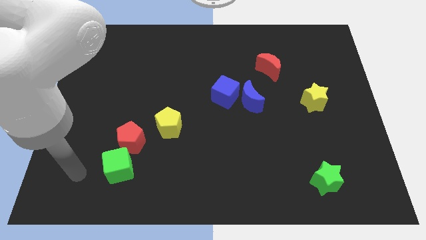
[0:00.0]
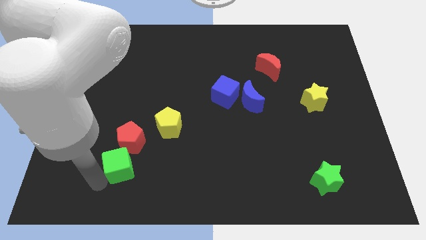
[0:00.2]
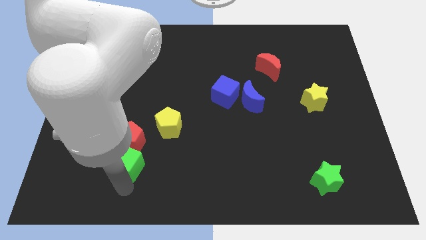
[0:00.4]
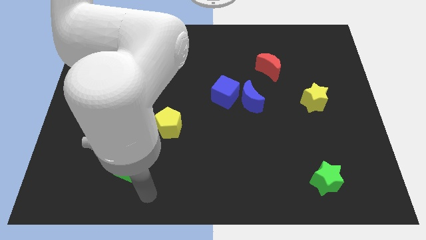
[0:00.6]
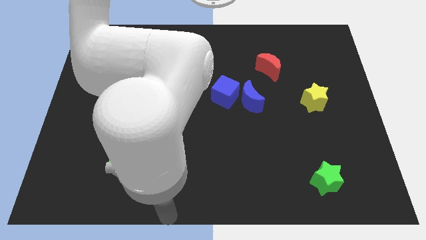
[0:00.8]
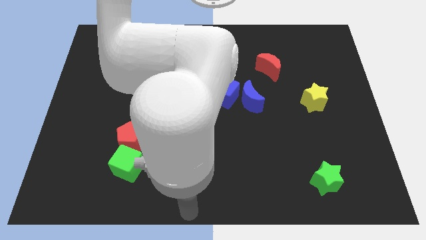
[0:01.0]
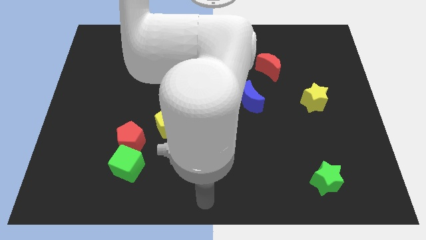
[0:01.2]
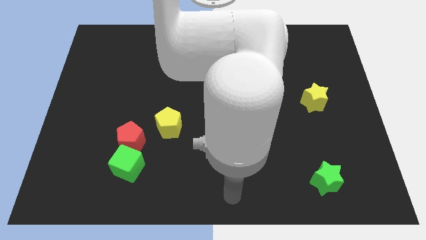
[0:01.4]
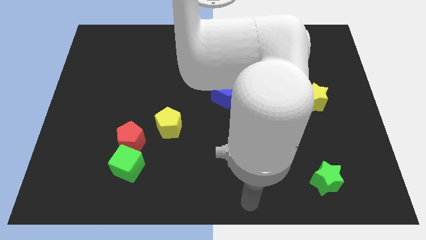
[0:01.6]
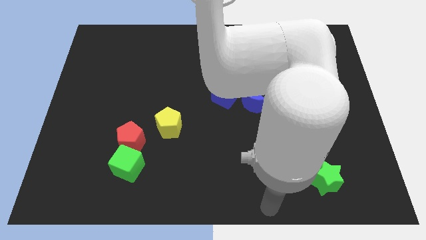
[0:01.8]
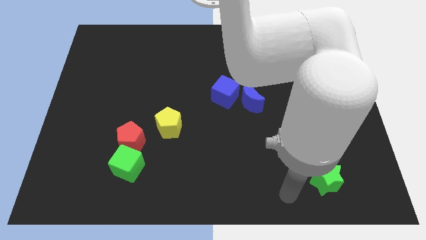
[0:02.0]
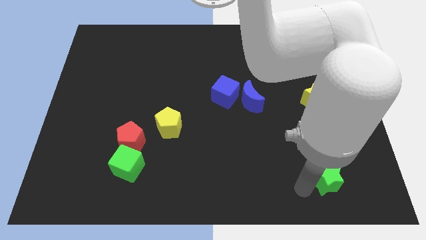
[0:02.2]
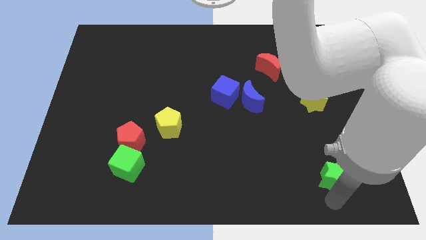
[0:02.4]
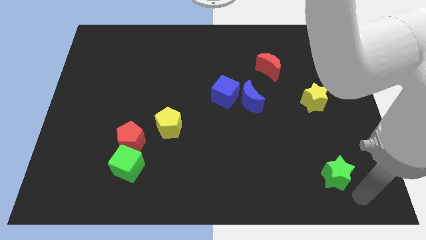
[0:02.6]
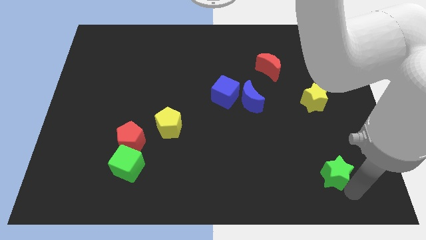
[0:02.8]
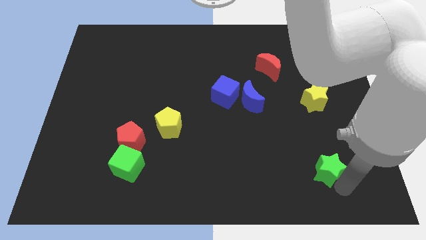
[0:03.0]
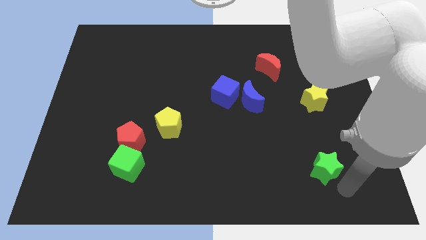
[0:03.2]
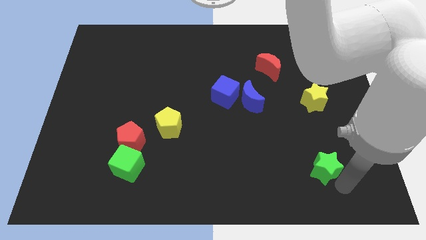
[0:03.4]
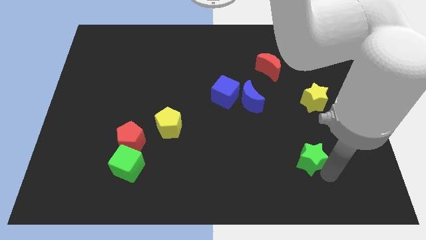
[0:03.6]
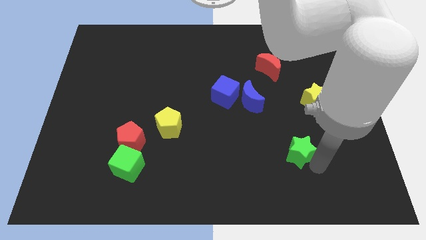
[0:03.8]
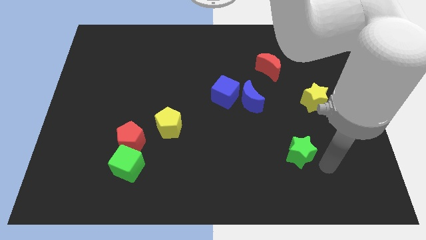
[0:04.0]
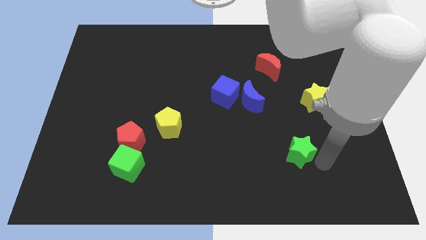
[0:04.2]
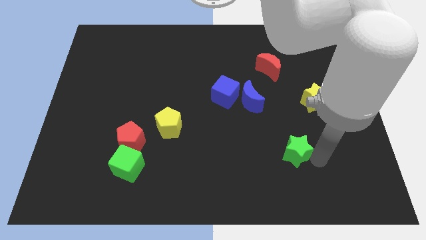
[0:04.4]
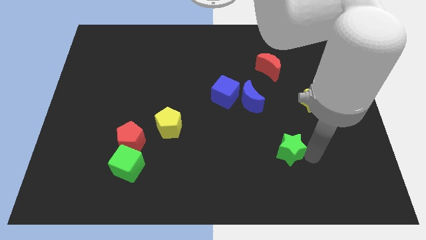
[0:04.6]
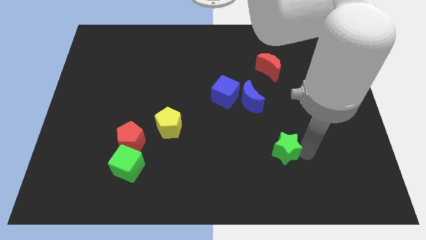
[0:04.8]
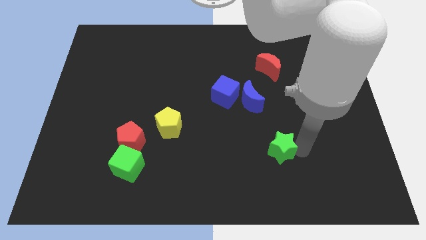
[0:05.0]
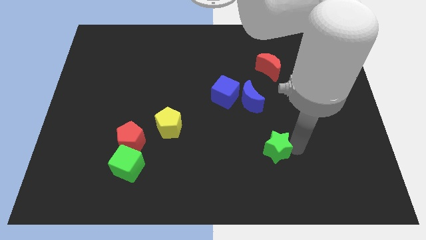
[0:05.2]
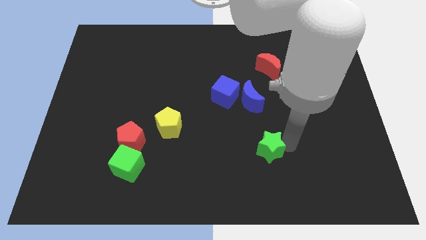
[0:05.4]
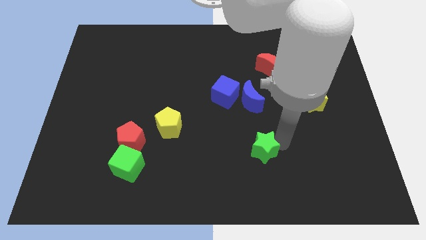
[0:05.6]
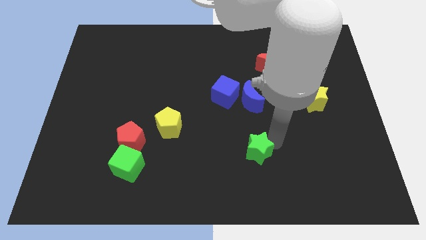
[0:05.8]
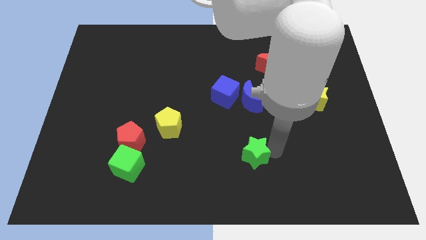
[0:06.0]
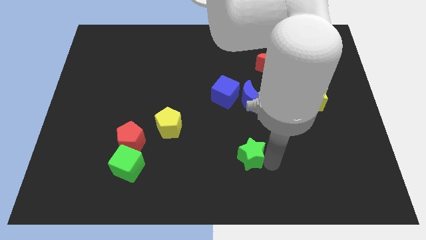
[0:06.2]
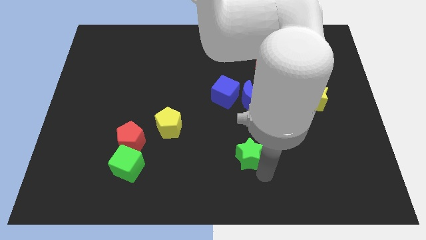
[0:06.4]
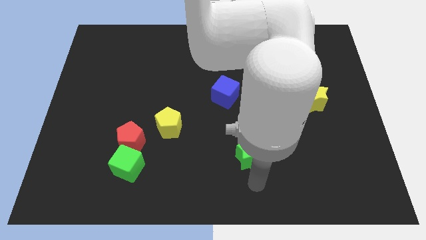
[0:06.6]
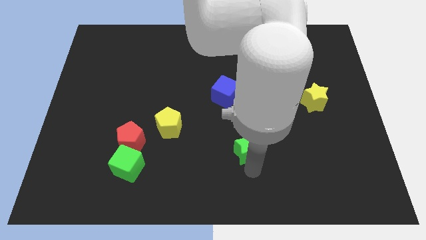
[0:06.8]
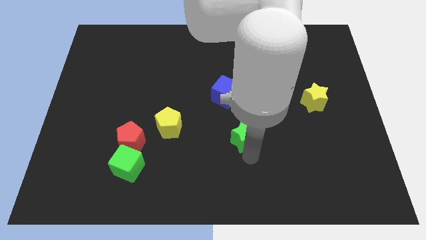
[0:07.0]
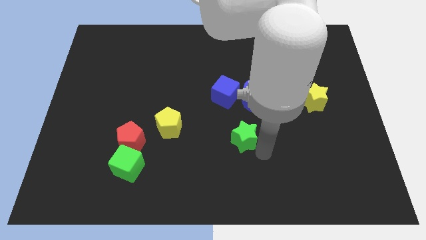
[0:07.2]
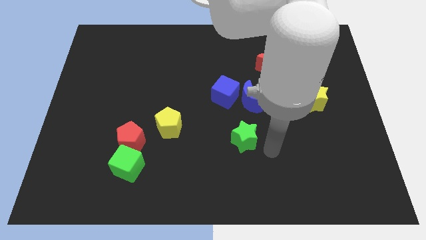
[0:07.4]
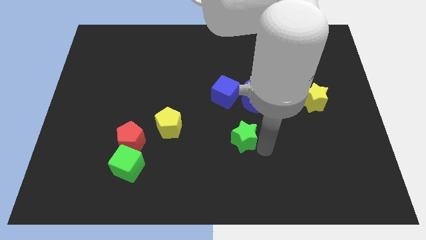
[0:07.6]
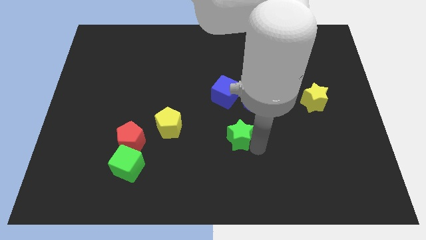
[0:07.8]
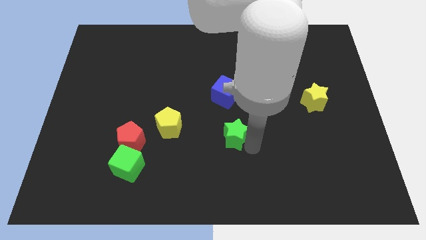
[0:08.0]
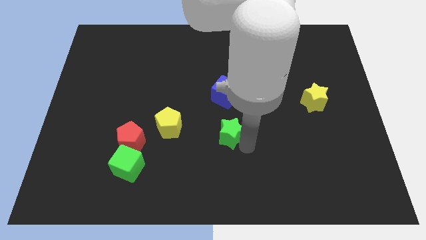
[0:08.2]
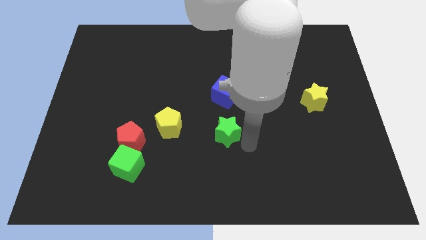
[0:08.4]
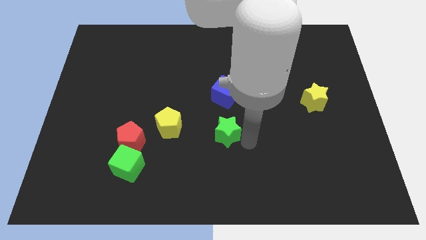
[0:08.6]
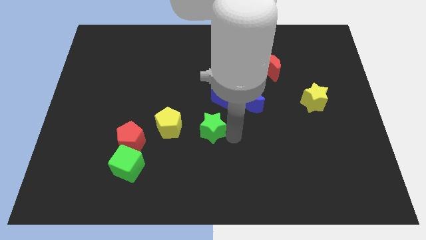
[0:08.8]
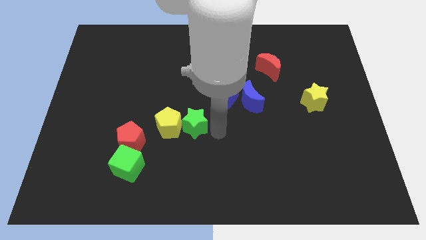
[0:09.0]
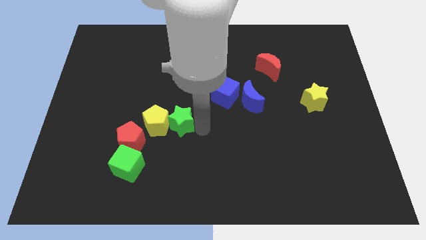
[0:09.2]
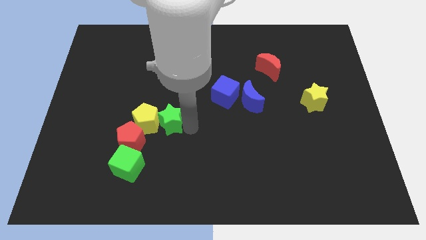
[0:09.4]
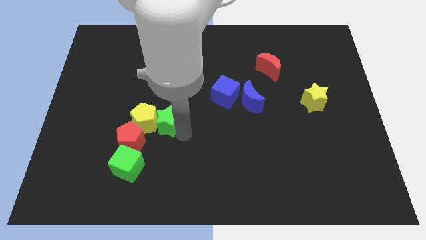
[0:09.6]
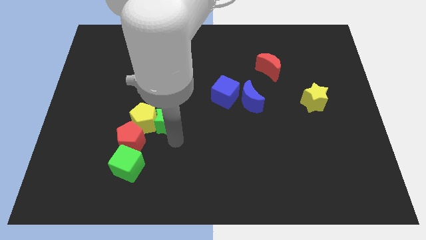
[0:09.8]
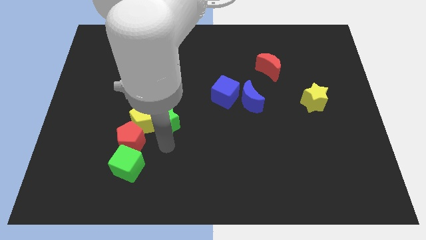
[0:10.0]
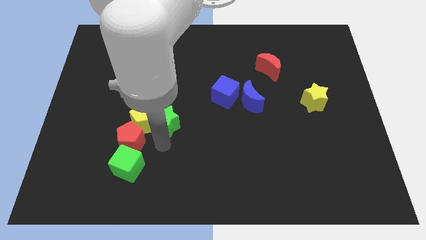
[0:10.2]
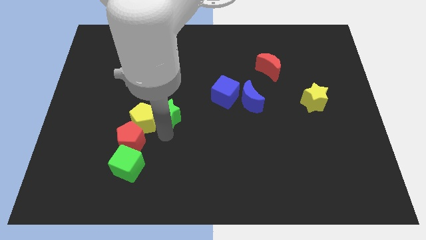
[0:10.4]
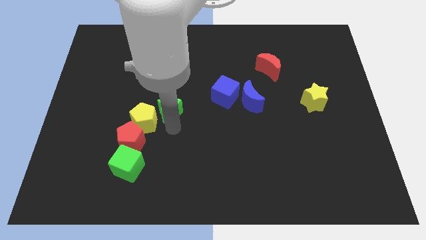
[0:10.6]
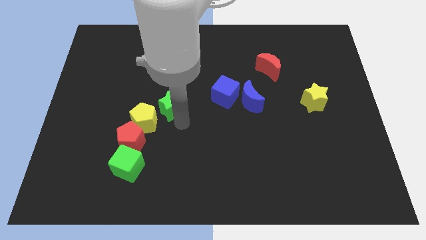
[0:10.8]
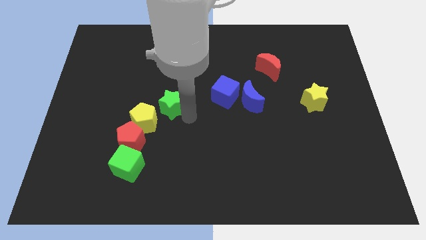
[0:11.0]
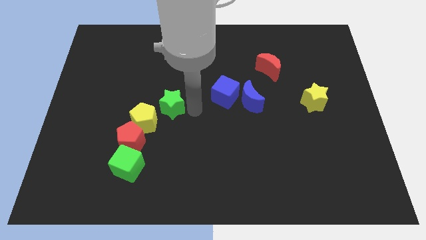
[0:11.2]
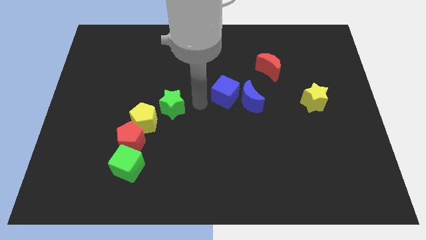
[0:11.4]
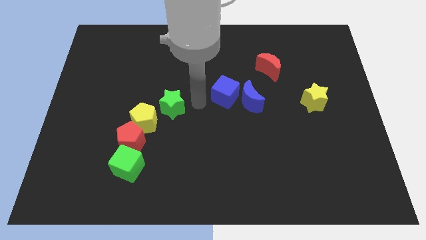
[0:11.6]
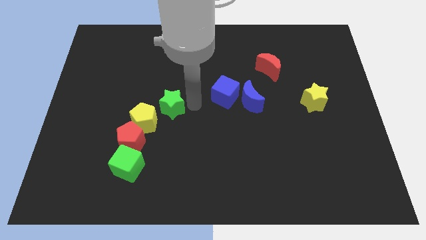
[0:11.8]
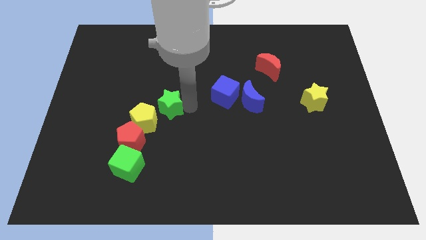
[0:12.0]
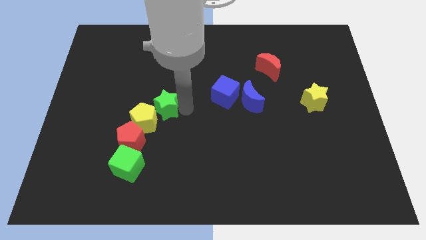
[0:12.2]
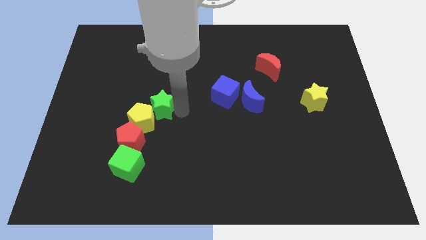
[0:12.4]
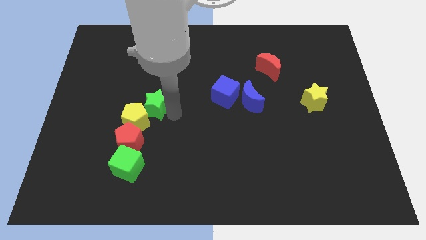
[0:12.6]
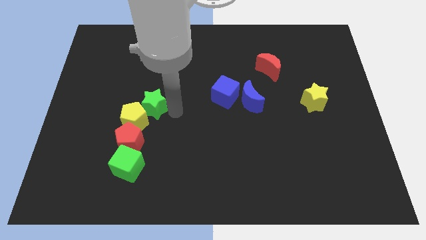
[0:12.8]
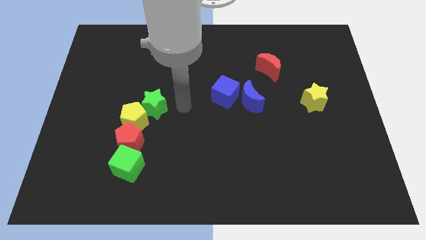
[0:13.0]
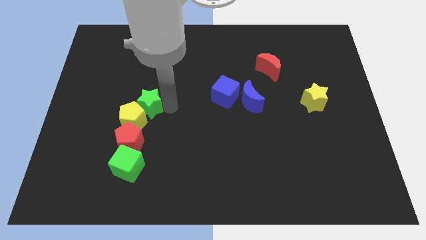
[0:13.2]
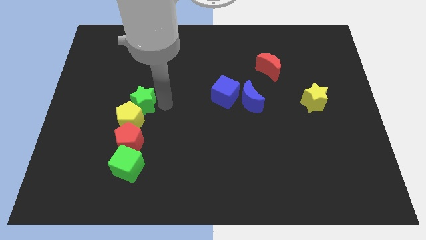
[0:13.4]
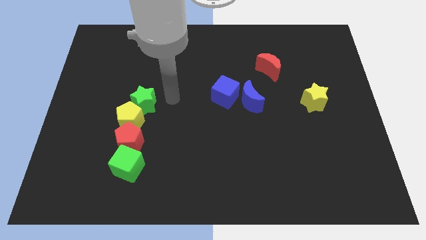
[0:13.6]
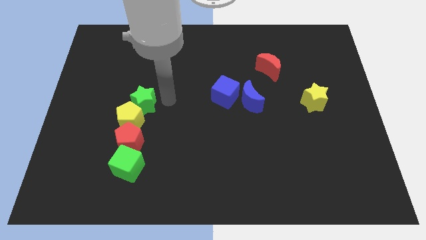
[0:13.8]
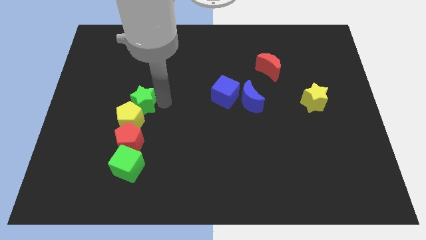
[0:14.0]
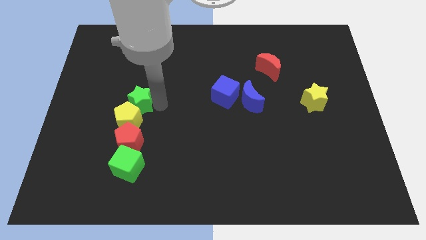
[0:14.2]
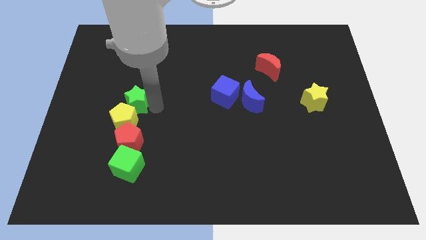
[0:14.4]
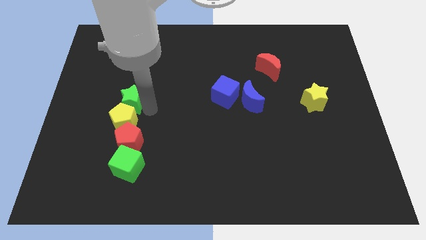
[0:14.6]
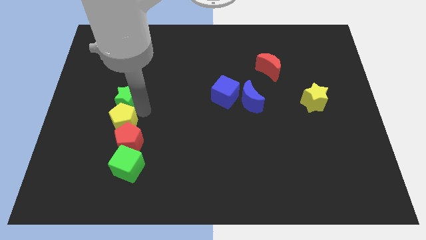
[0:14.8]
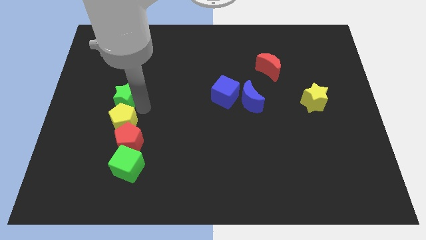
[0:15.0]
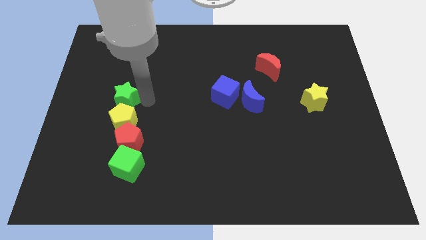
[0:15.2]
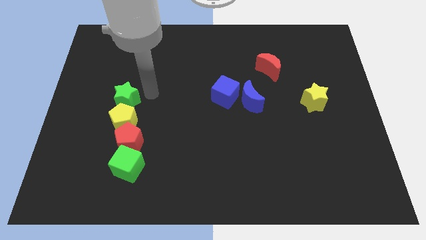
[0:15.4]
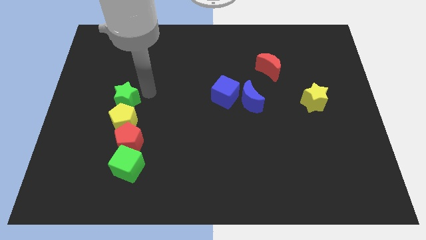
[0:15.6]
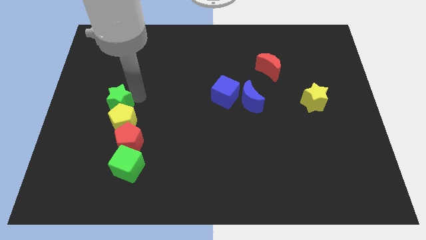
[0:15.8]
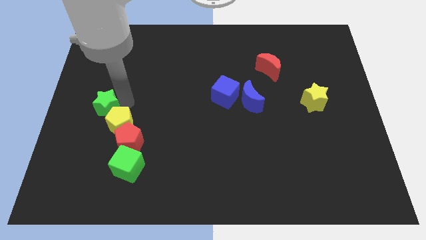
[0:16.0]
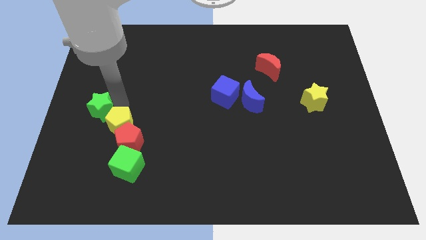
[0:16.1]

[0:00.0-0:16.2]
move the green star to the center left

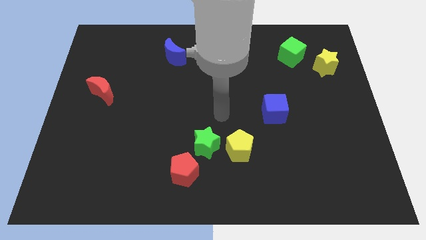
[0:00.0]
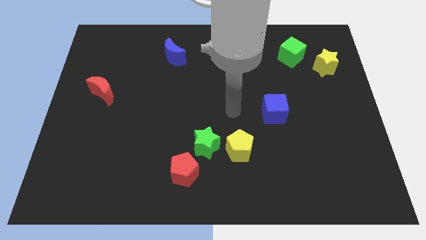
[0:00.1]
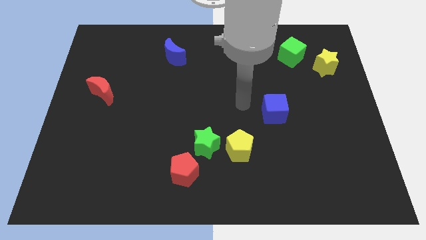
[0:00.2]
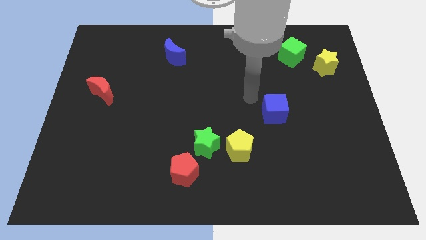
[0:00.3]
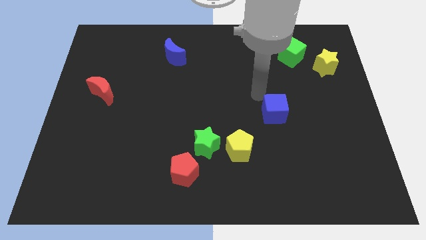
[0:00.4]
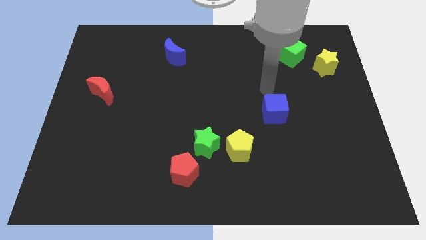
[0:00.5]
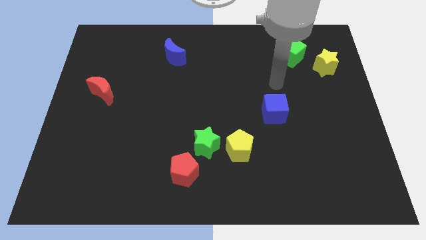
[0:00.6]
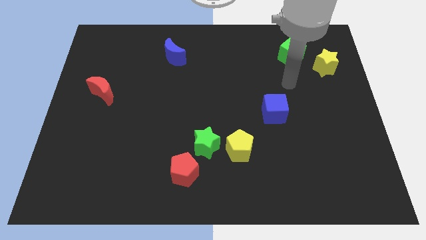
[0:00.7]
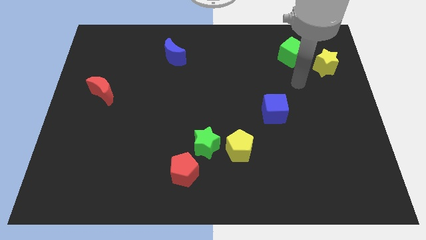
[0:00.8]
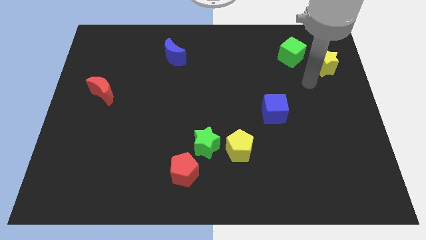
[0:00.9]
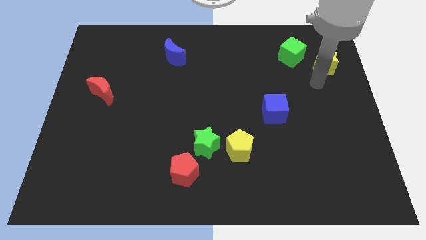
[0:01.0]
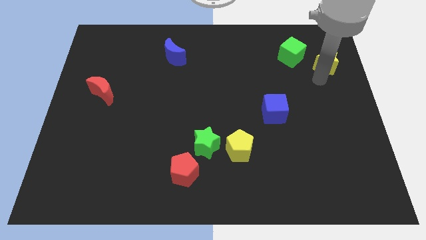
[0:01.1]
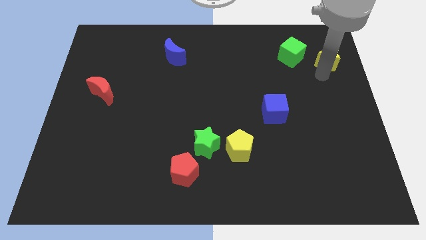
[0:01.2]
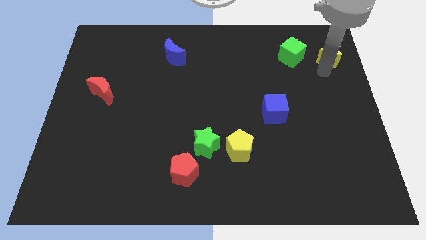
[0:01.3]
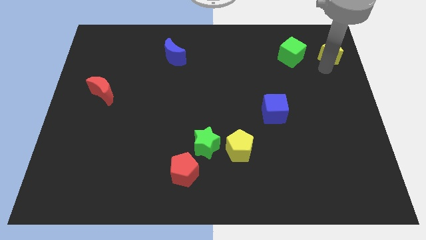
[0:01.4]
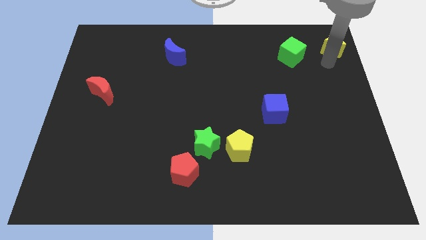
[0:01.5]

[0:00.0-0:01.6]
push the yellow star to the top right
